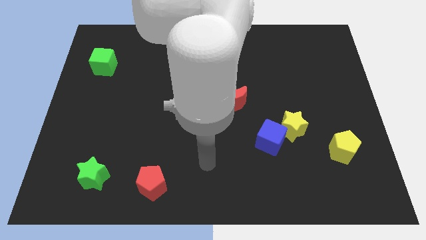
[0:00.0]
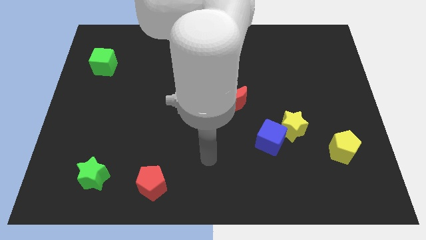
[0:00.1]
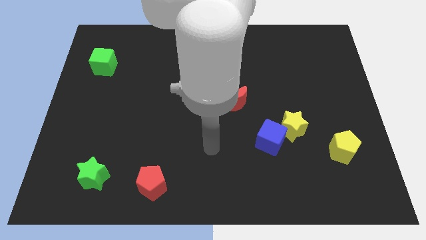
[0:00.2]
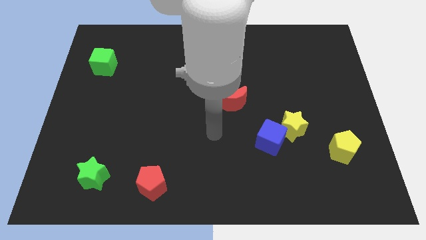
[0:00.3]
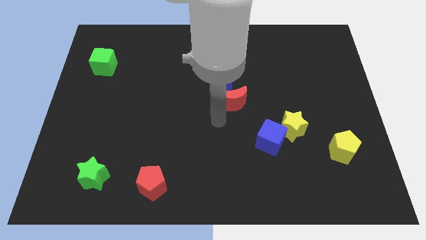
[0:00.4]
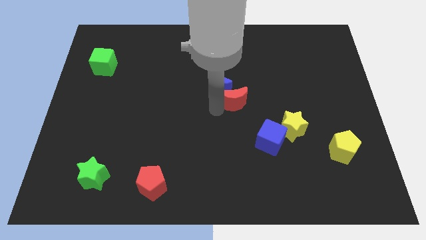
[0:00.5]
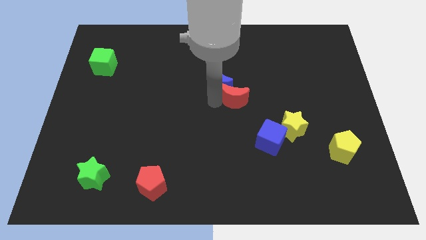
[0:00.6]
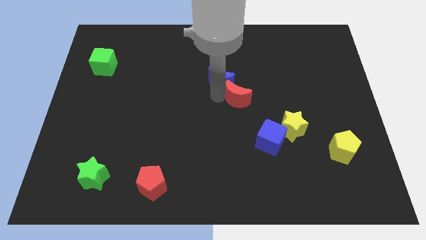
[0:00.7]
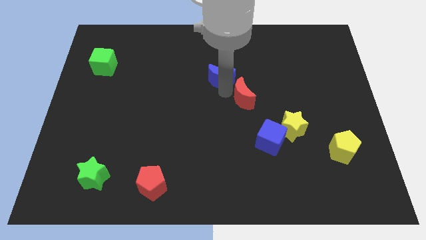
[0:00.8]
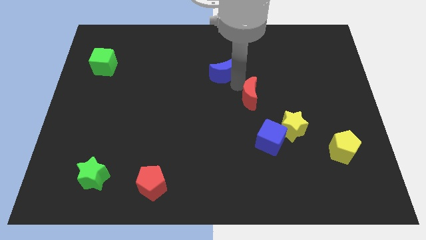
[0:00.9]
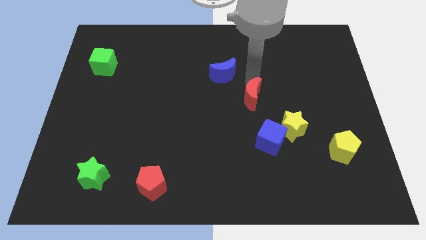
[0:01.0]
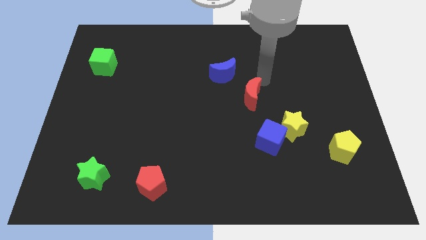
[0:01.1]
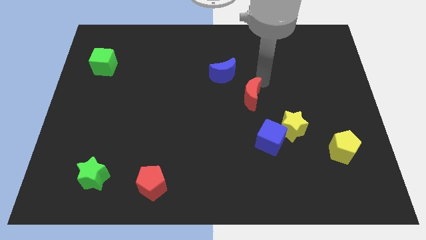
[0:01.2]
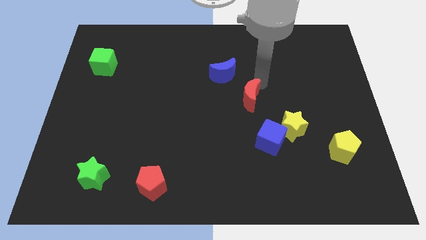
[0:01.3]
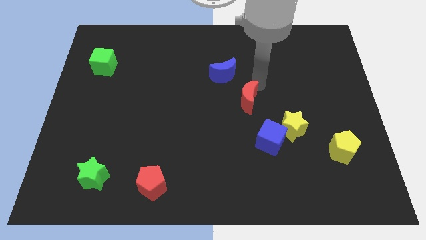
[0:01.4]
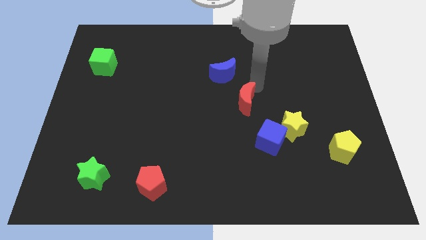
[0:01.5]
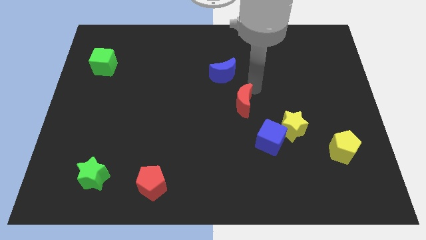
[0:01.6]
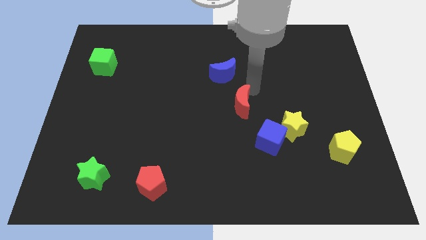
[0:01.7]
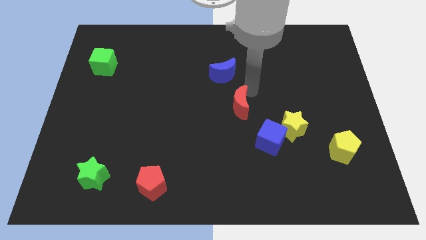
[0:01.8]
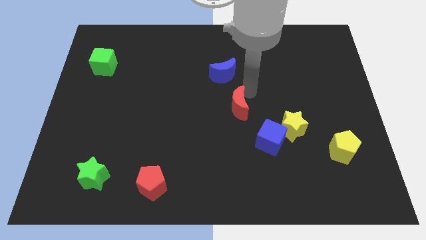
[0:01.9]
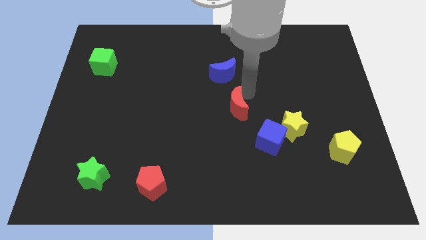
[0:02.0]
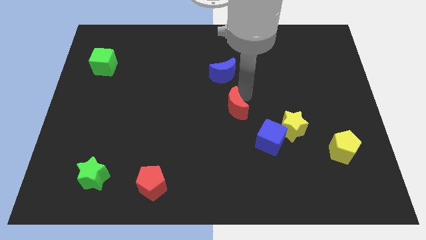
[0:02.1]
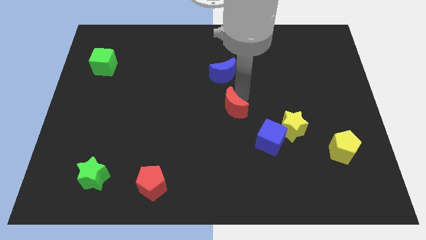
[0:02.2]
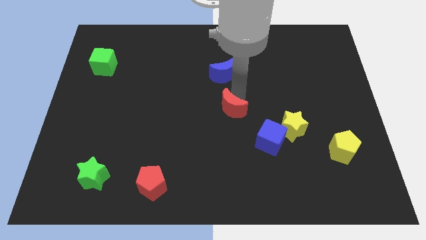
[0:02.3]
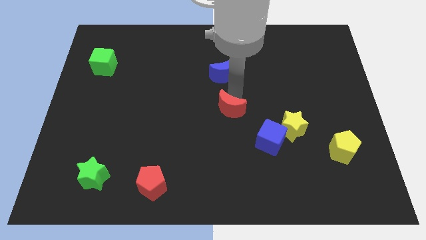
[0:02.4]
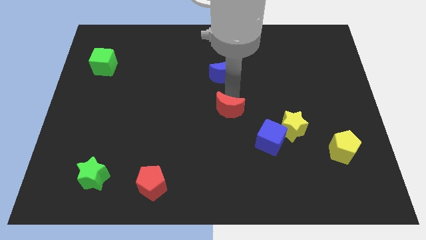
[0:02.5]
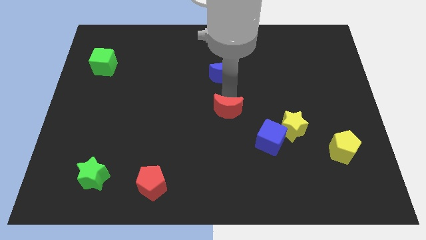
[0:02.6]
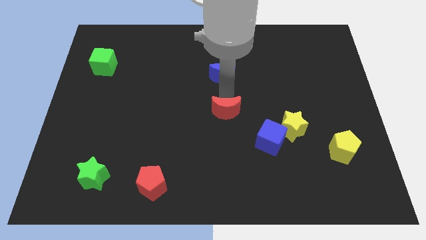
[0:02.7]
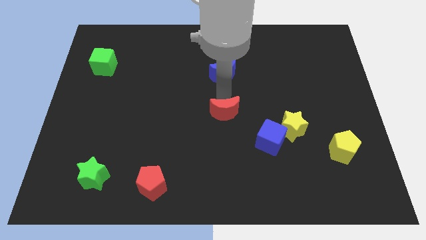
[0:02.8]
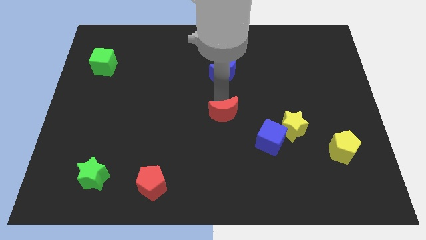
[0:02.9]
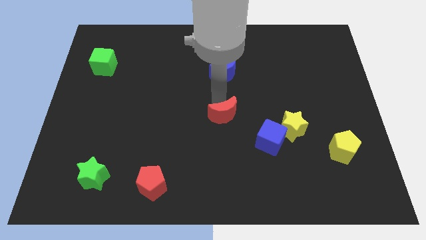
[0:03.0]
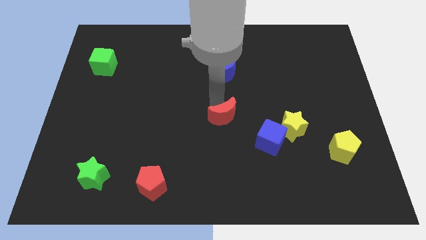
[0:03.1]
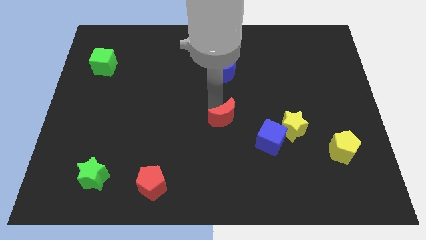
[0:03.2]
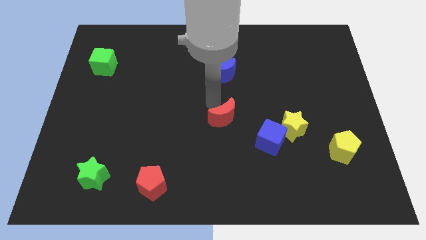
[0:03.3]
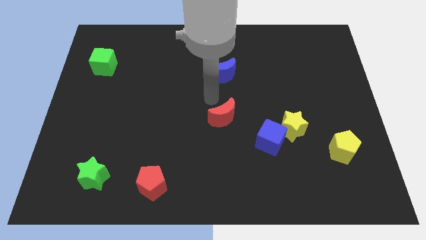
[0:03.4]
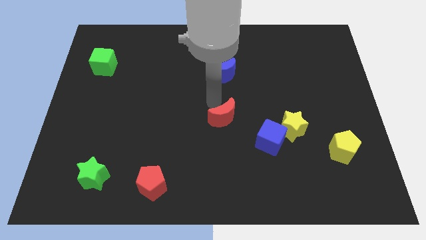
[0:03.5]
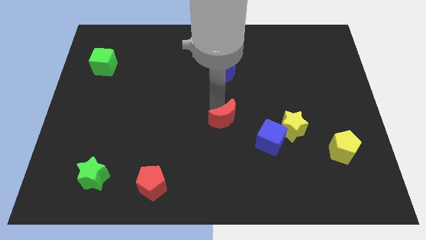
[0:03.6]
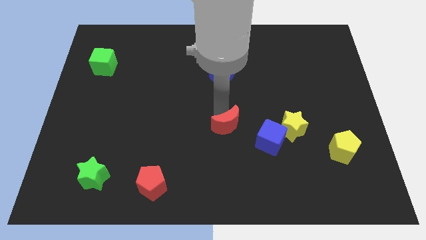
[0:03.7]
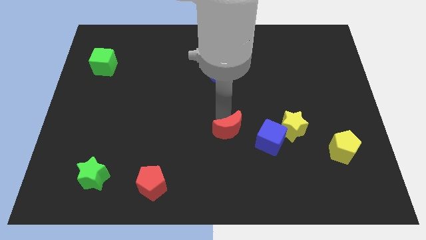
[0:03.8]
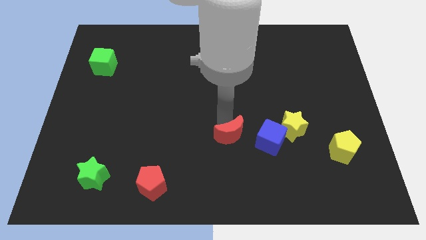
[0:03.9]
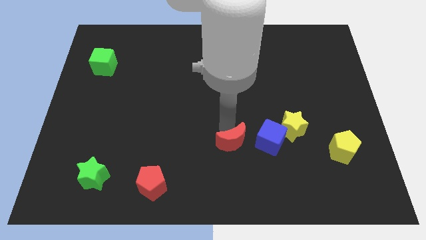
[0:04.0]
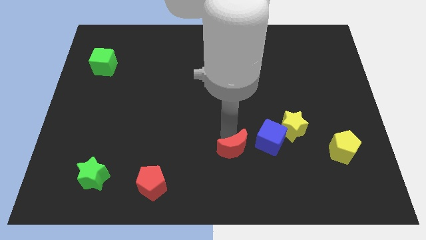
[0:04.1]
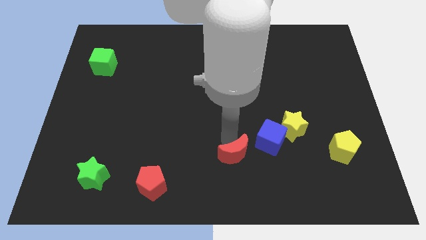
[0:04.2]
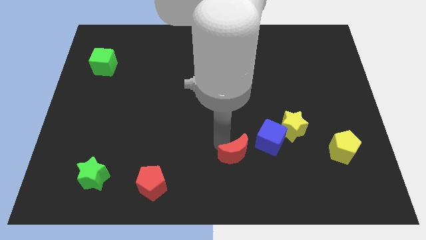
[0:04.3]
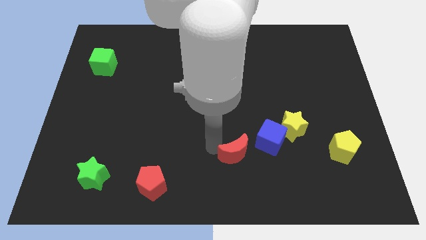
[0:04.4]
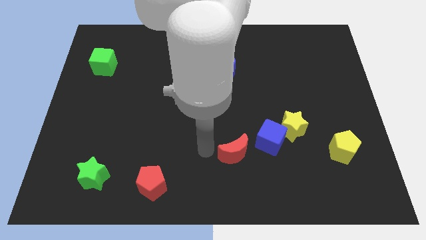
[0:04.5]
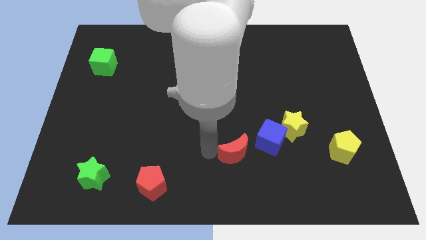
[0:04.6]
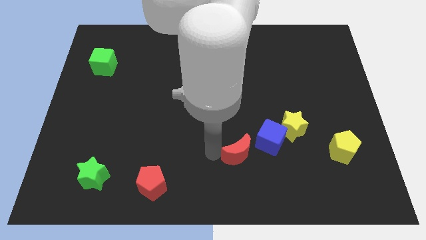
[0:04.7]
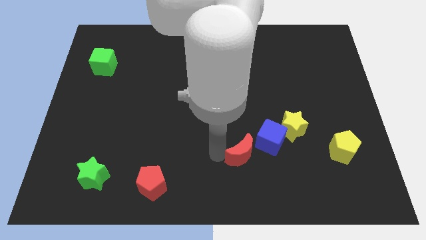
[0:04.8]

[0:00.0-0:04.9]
move the red moon down and right slightly

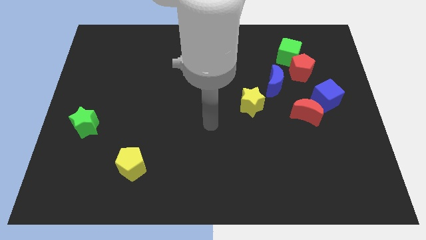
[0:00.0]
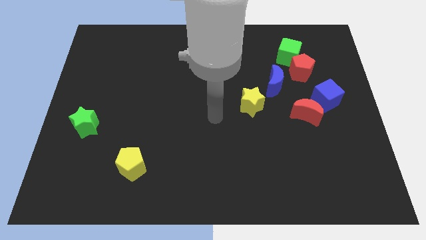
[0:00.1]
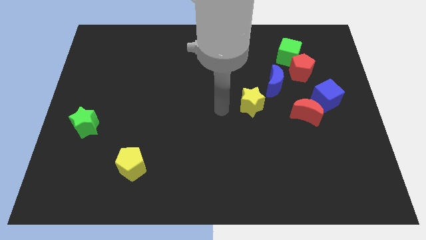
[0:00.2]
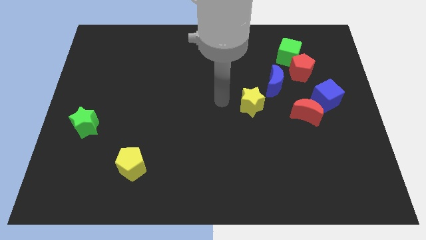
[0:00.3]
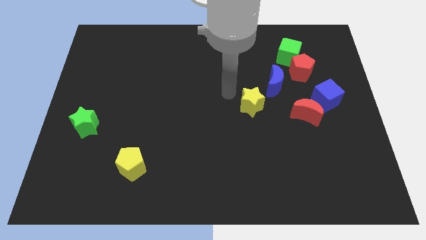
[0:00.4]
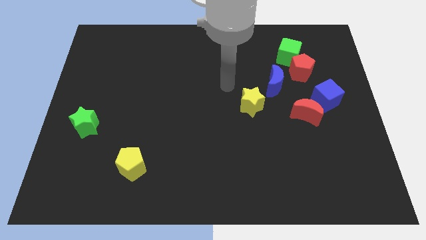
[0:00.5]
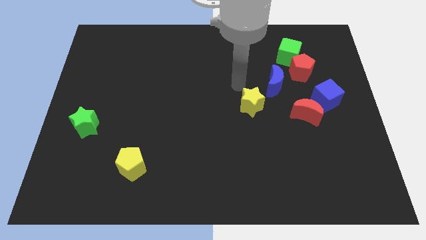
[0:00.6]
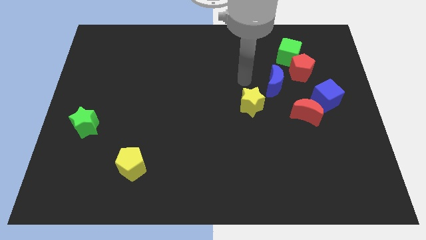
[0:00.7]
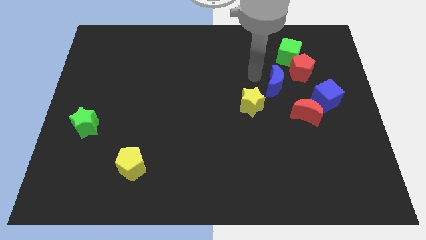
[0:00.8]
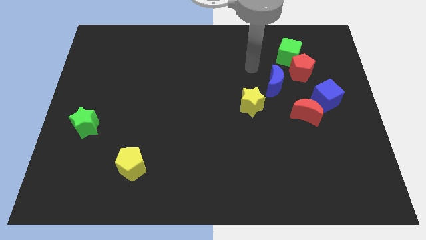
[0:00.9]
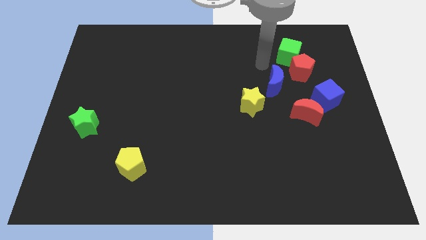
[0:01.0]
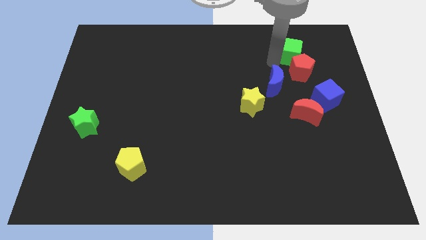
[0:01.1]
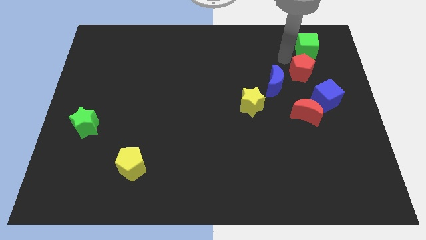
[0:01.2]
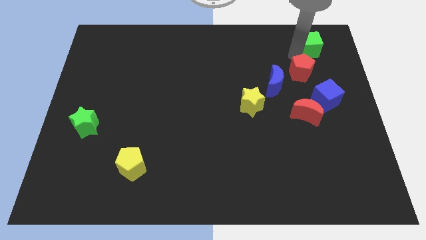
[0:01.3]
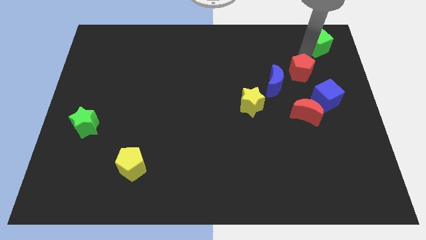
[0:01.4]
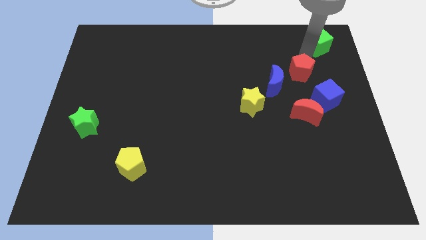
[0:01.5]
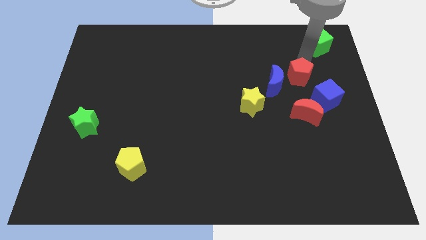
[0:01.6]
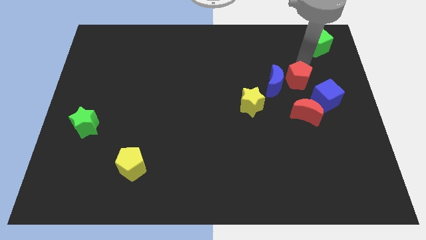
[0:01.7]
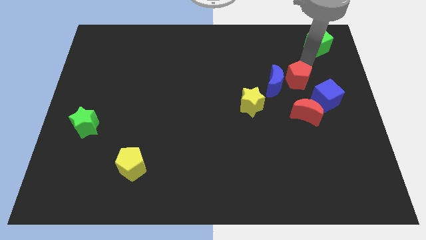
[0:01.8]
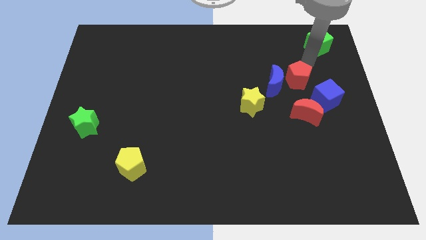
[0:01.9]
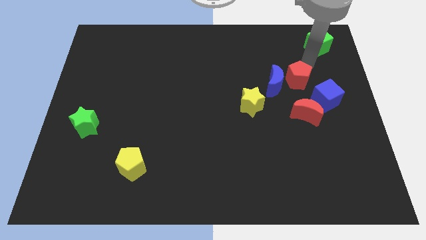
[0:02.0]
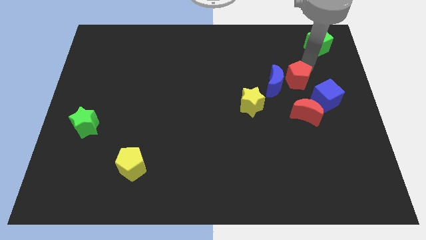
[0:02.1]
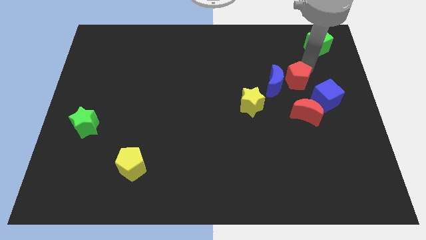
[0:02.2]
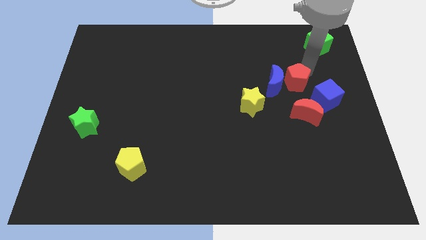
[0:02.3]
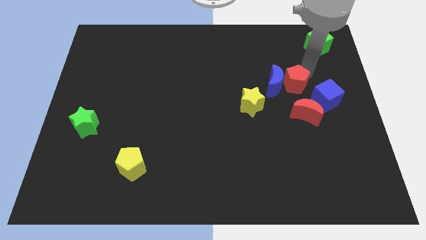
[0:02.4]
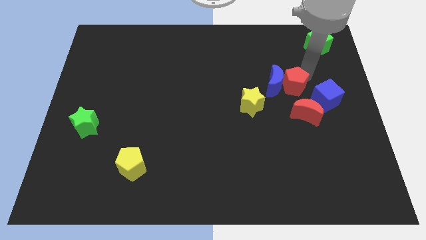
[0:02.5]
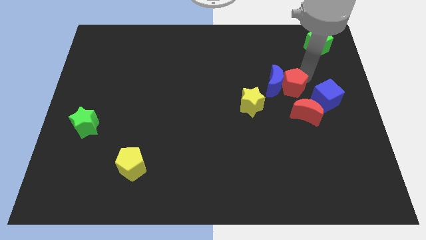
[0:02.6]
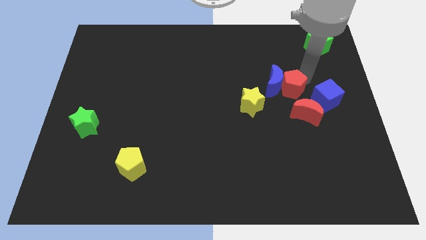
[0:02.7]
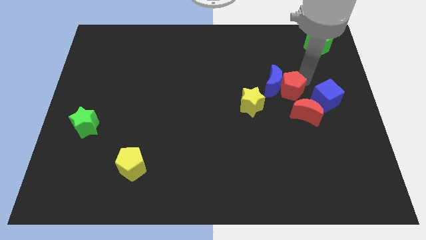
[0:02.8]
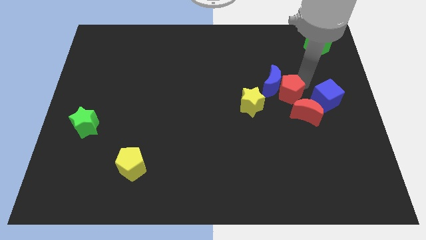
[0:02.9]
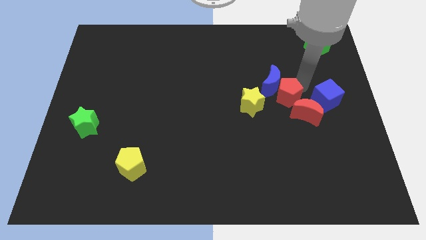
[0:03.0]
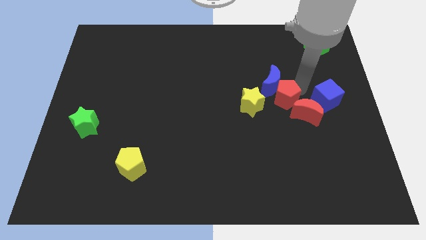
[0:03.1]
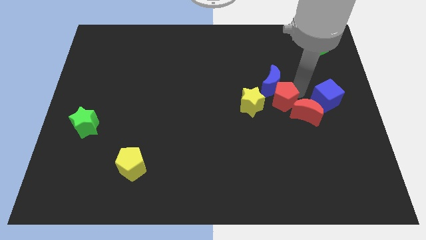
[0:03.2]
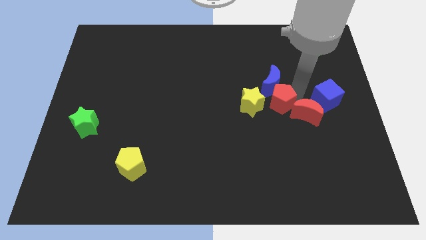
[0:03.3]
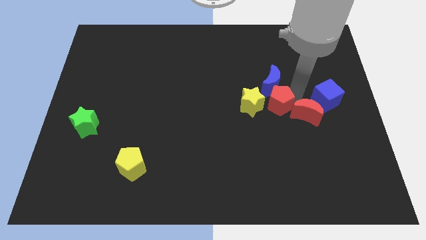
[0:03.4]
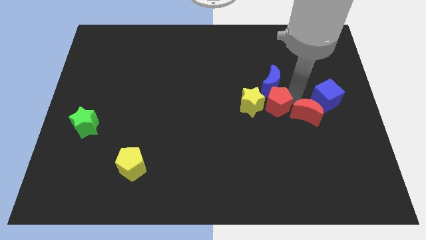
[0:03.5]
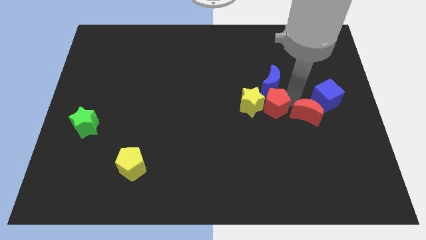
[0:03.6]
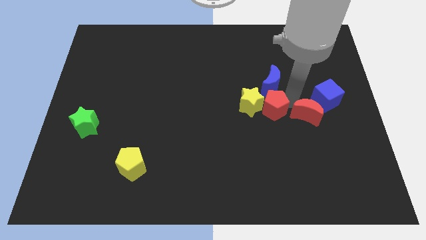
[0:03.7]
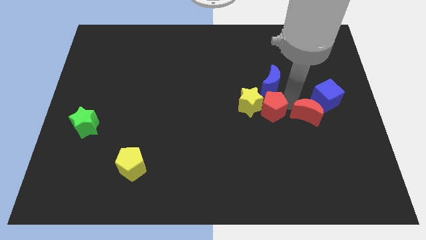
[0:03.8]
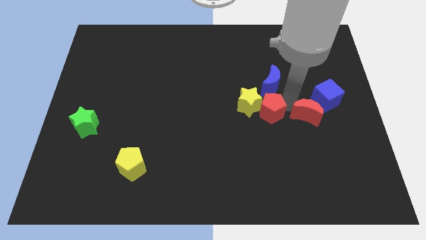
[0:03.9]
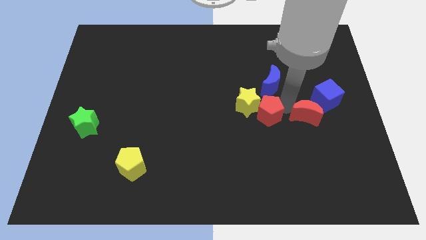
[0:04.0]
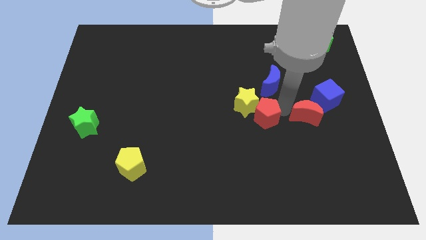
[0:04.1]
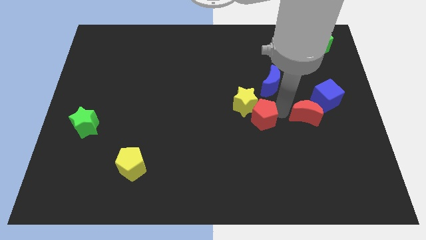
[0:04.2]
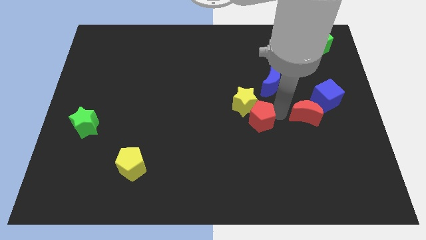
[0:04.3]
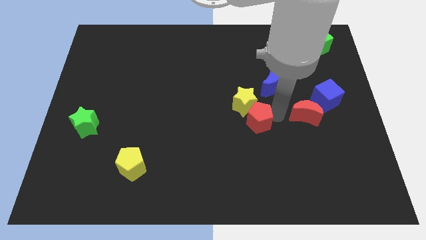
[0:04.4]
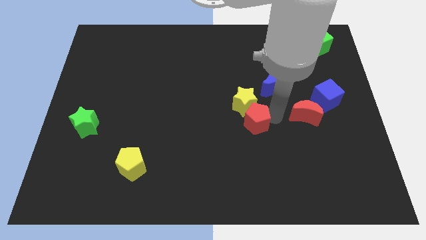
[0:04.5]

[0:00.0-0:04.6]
push the red pentagon downwards and to the left
